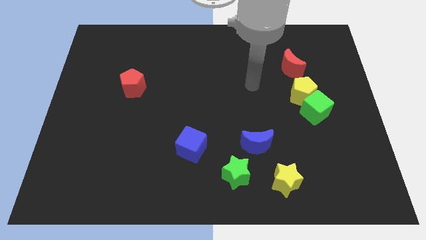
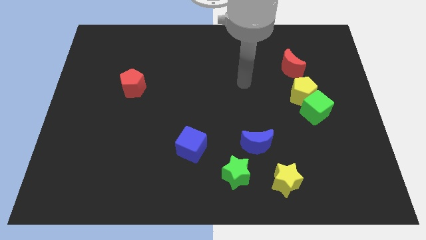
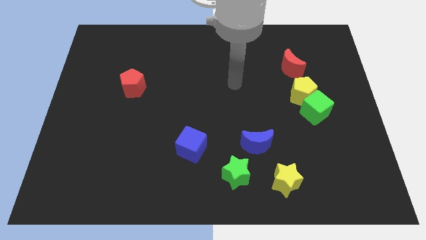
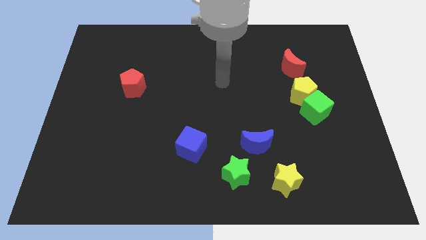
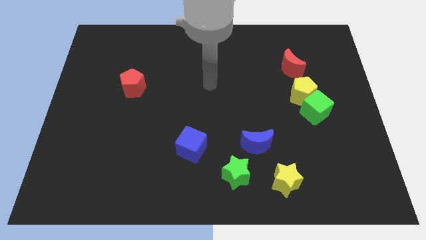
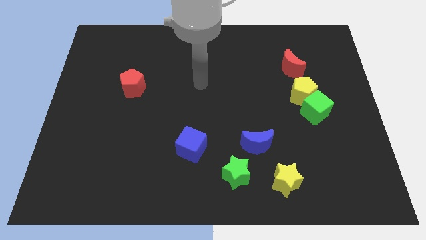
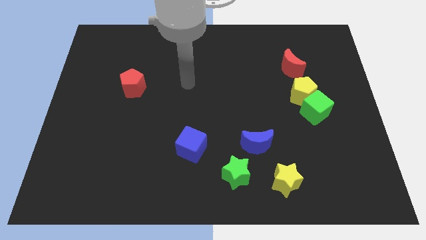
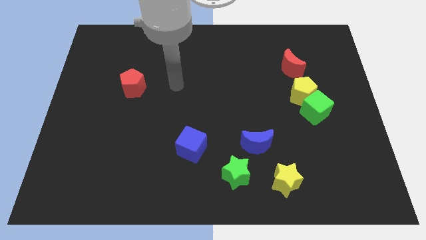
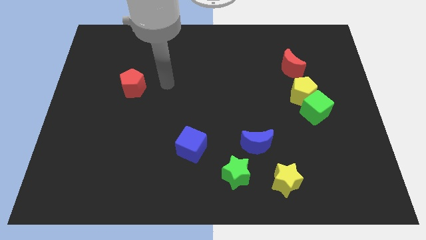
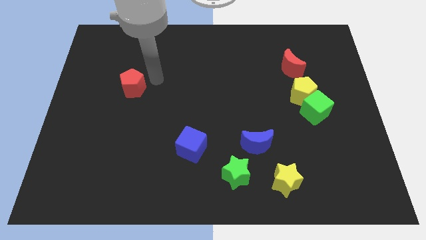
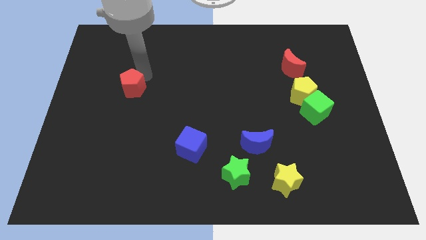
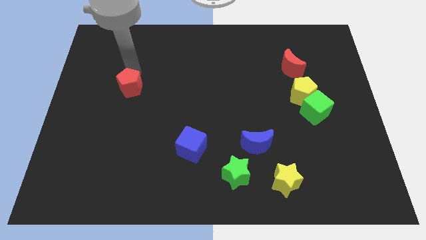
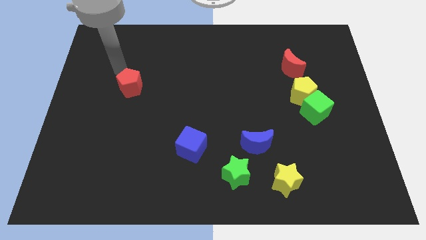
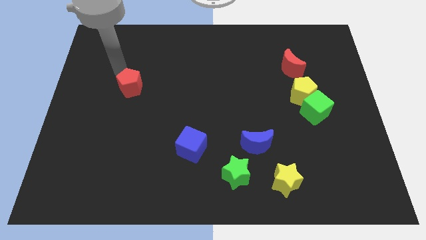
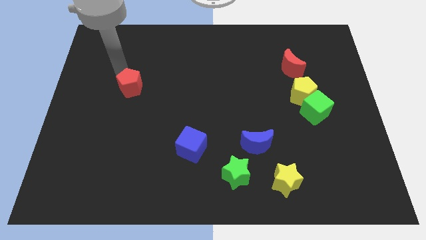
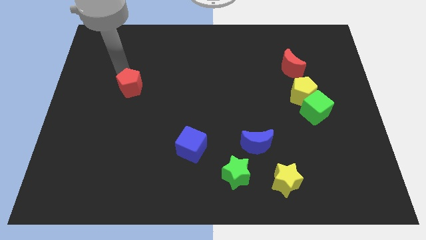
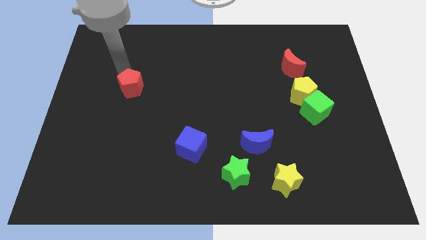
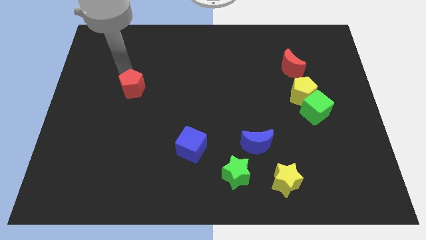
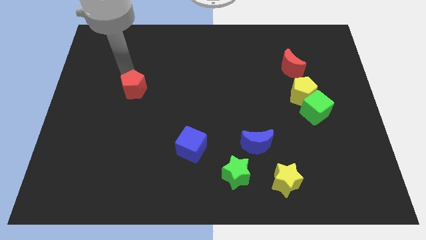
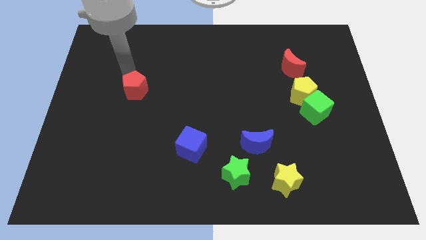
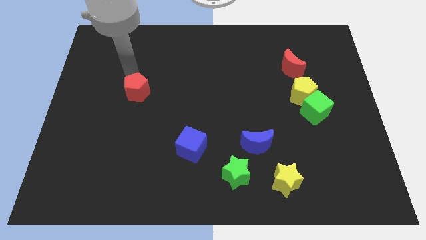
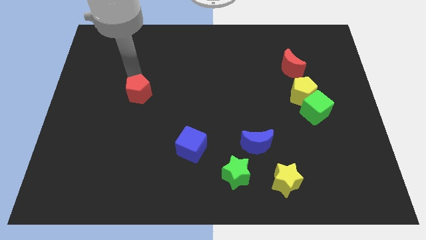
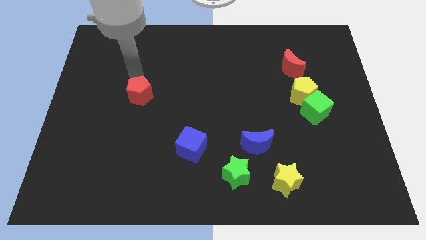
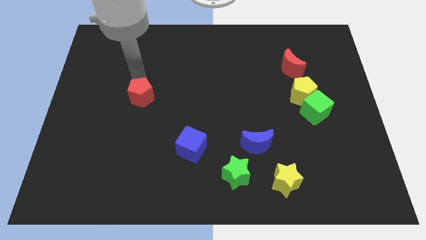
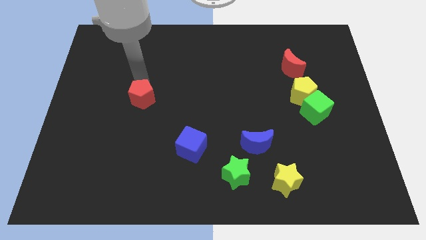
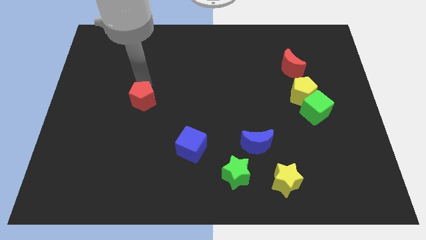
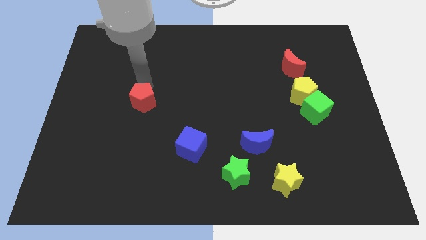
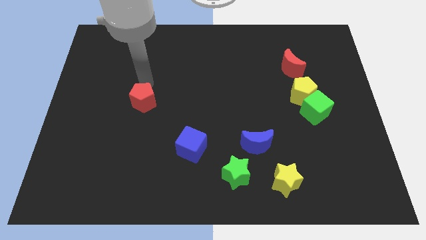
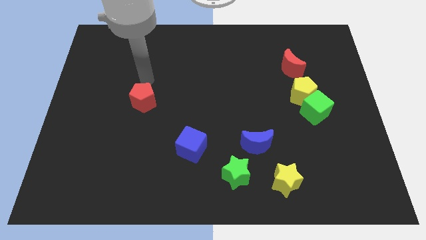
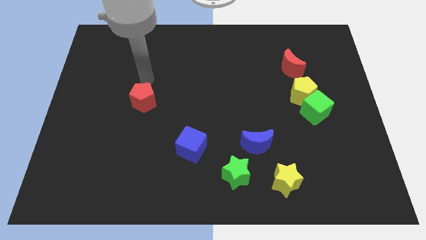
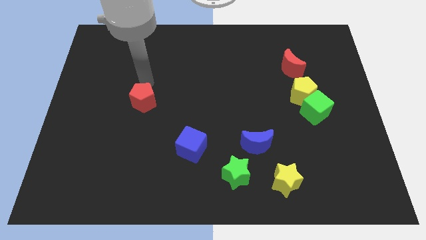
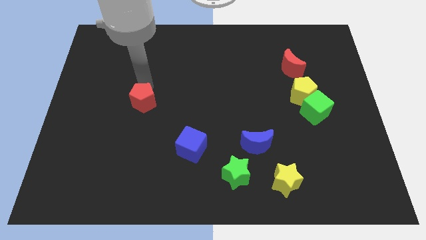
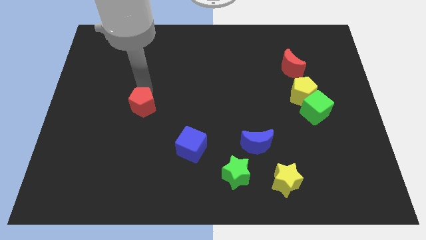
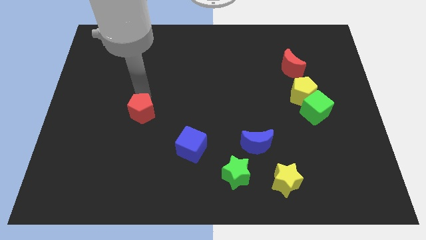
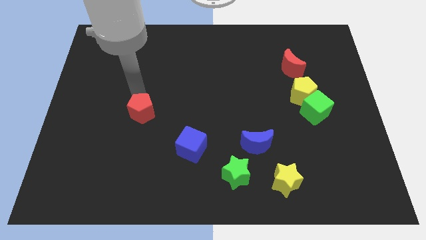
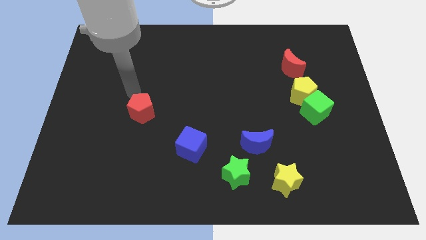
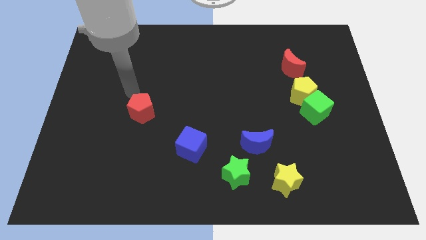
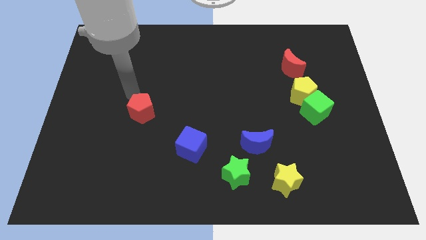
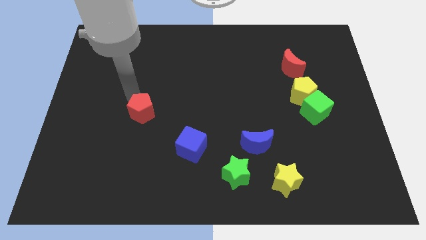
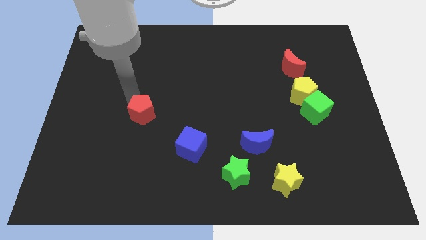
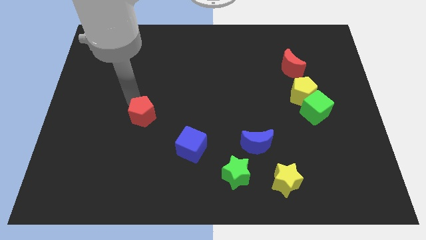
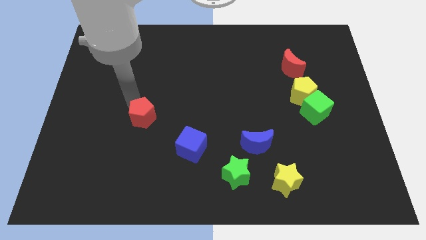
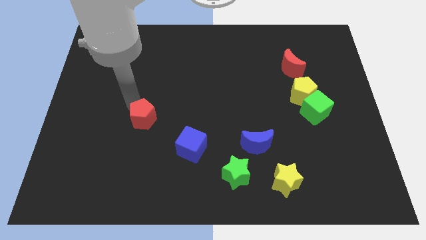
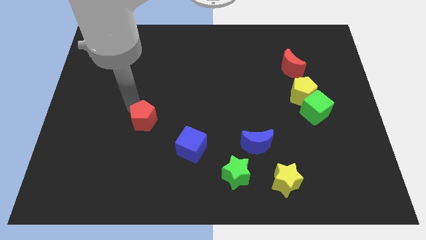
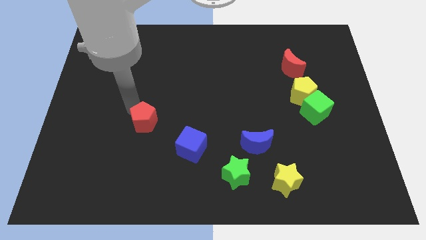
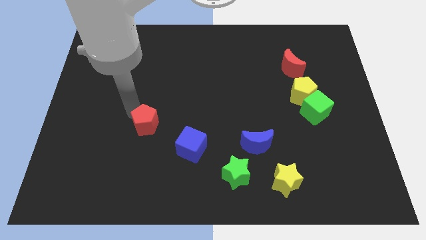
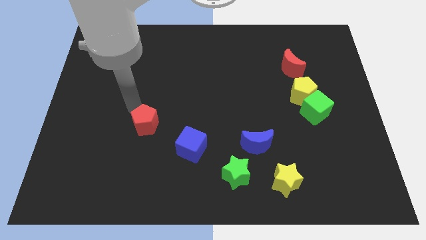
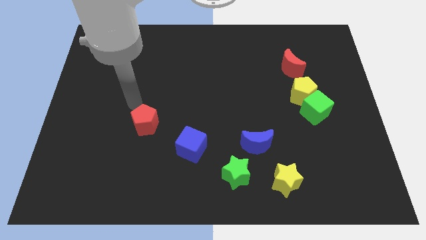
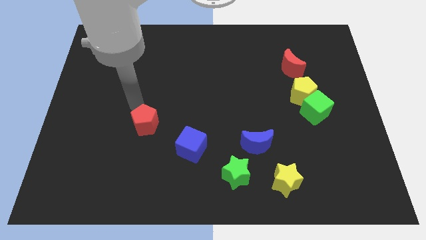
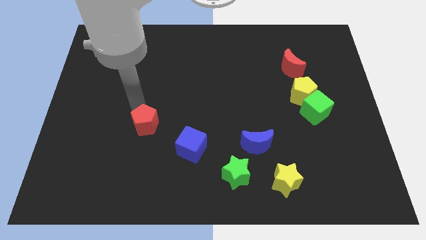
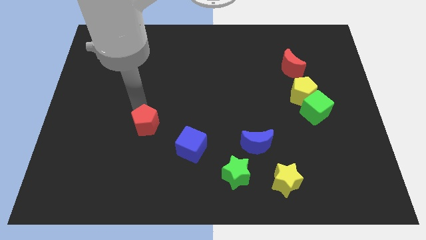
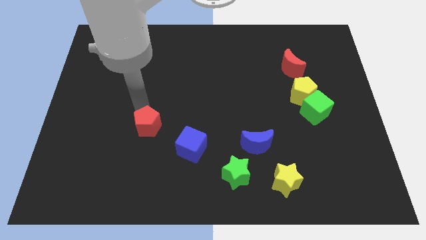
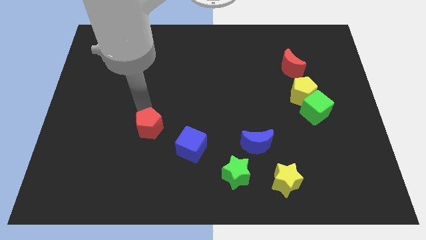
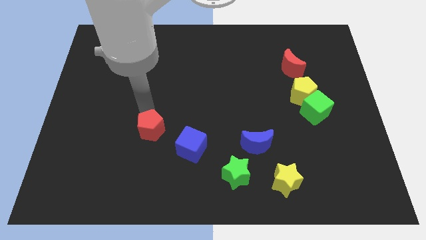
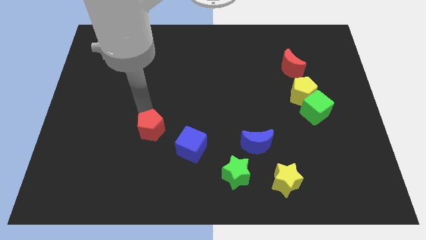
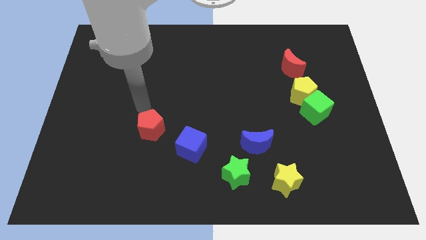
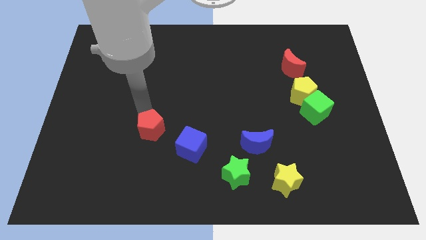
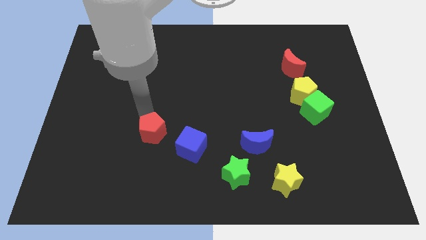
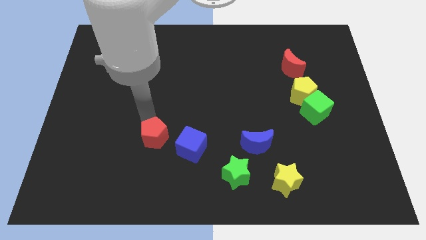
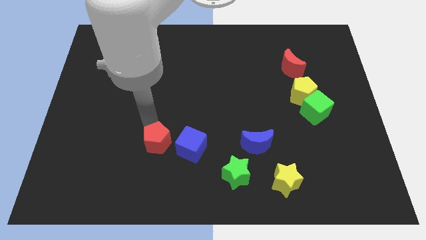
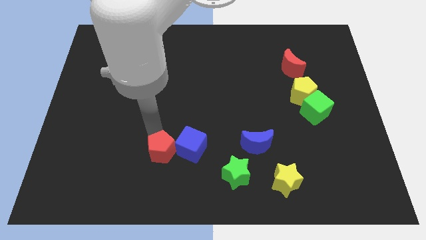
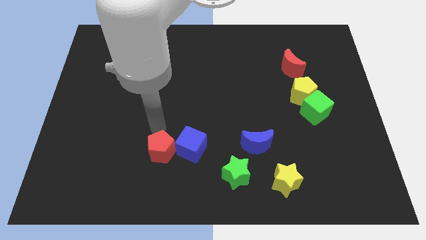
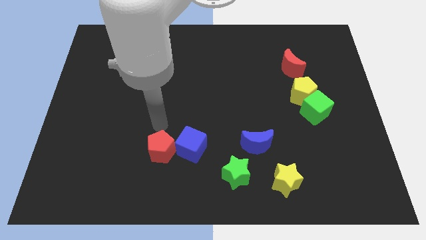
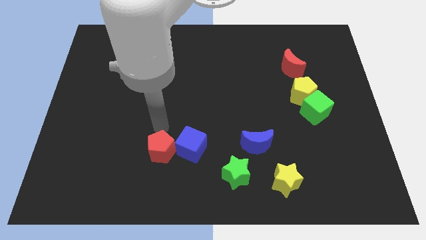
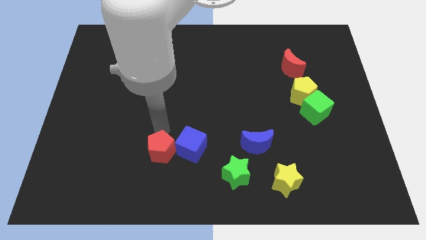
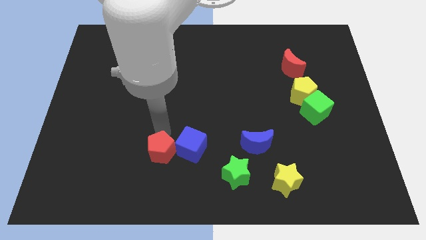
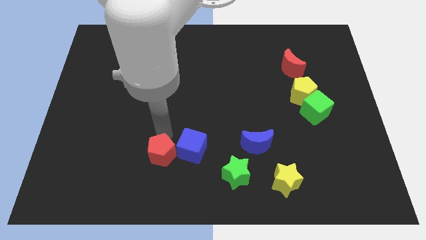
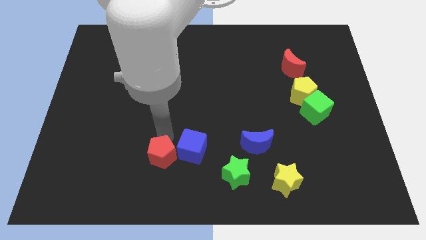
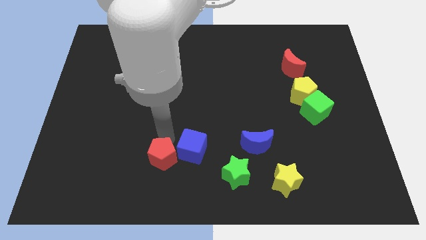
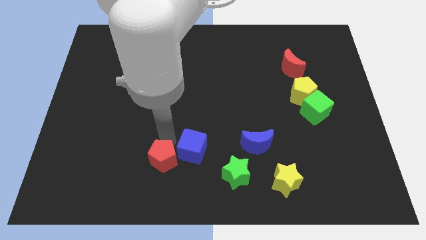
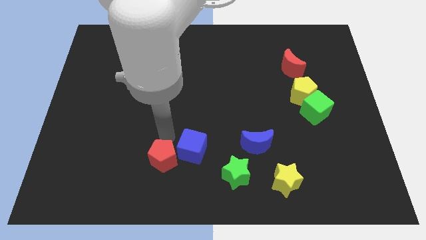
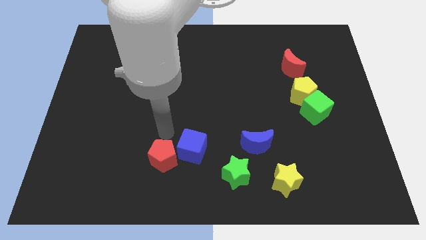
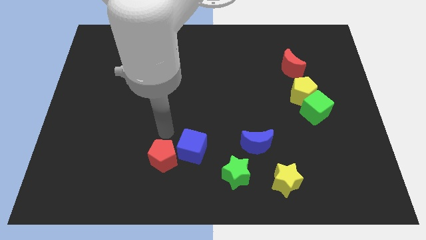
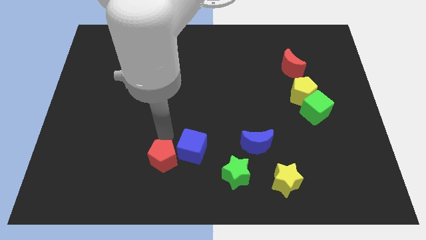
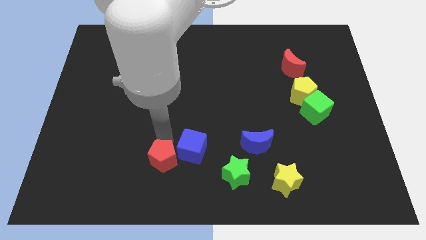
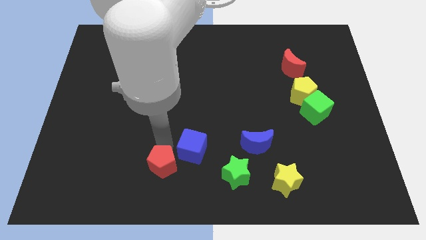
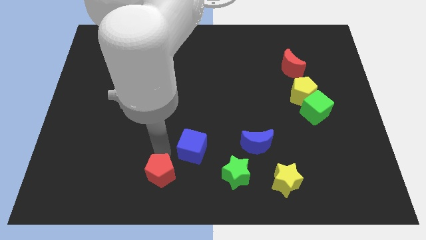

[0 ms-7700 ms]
move the red pentagon to the bottom
